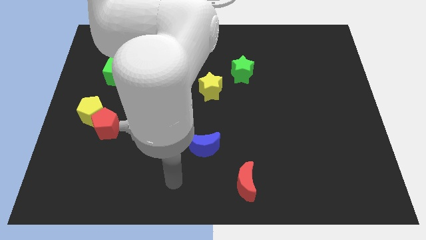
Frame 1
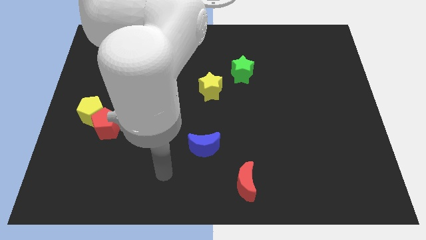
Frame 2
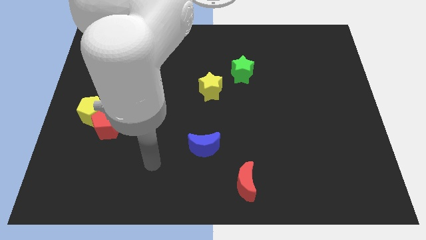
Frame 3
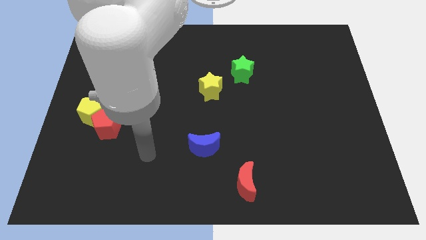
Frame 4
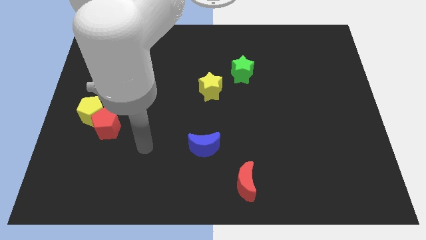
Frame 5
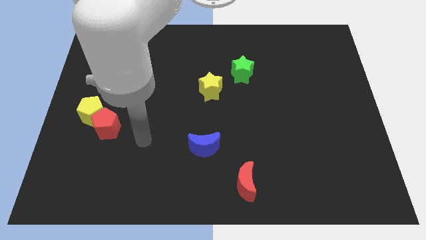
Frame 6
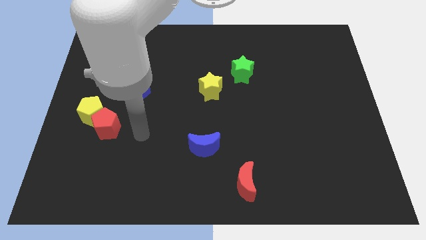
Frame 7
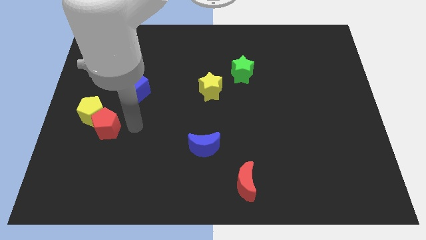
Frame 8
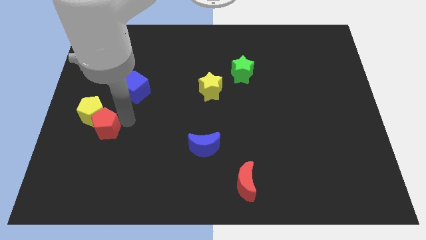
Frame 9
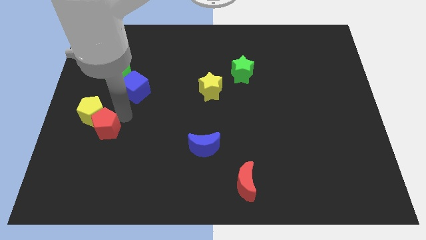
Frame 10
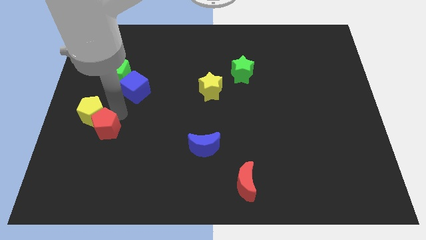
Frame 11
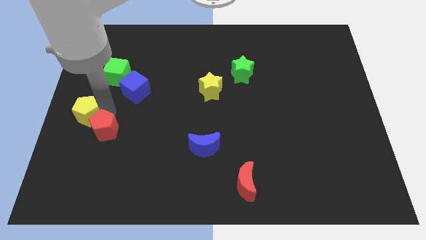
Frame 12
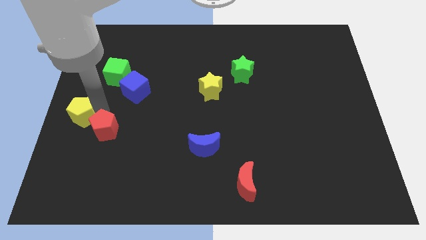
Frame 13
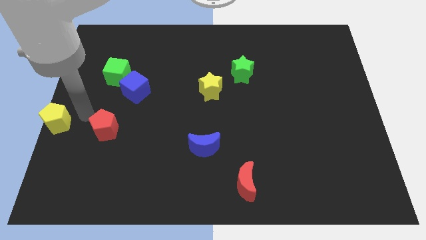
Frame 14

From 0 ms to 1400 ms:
separate the red pentagon from the yellow pentagon

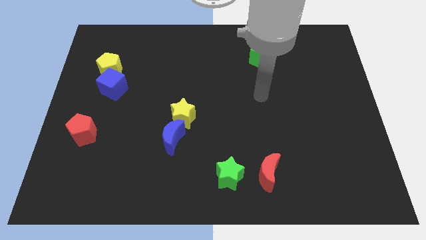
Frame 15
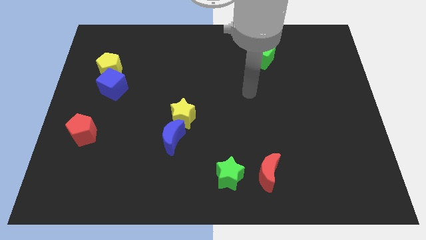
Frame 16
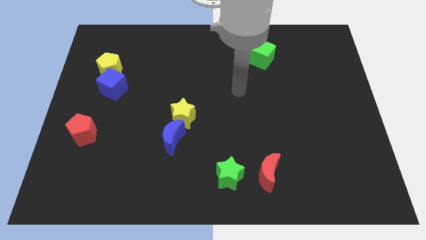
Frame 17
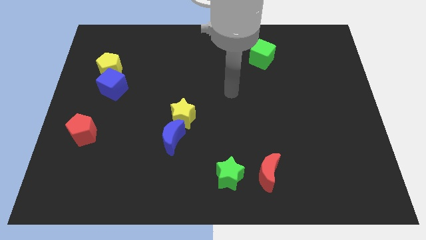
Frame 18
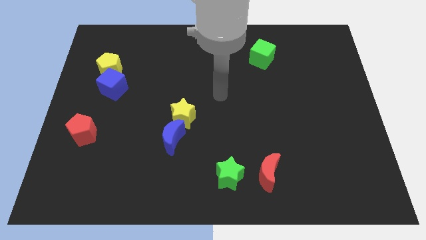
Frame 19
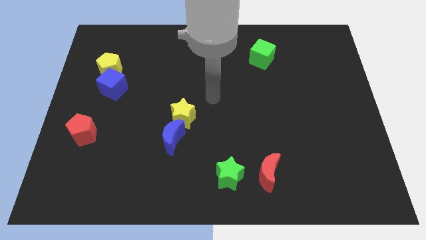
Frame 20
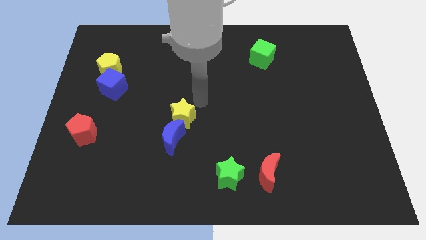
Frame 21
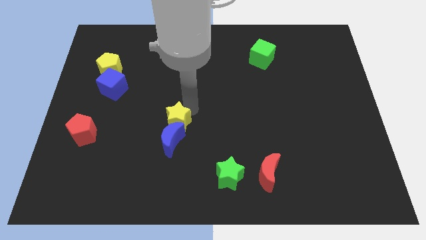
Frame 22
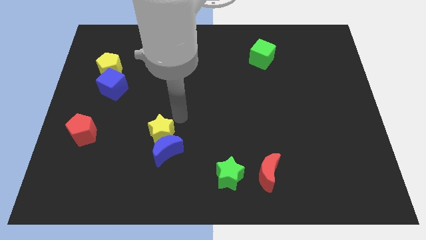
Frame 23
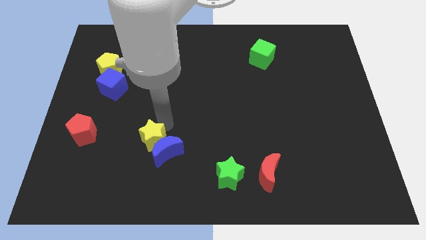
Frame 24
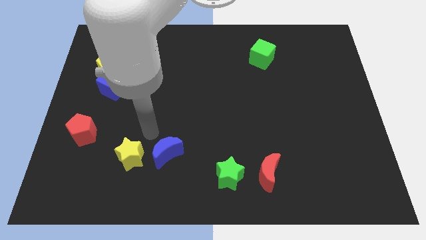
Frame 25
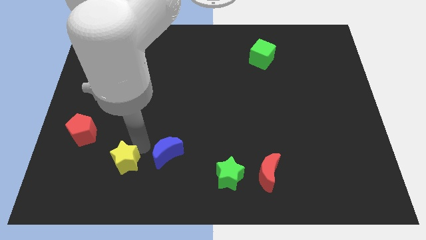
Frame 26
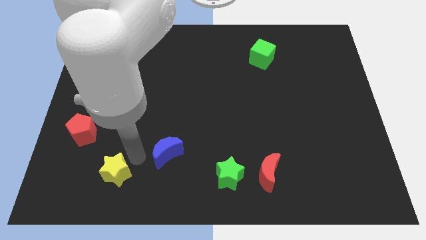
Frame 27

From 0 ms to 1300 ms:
pull the blue moon apart from the yellow star

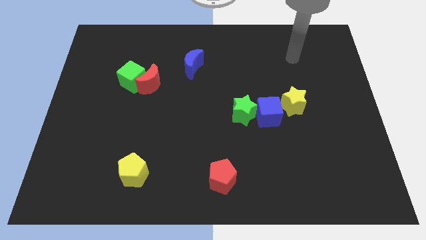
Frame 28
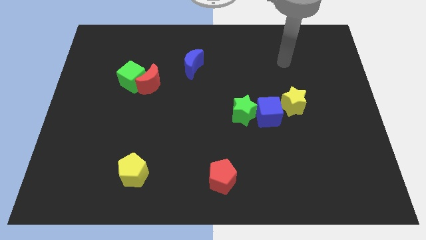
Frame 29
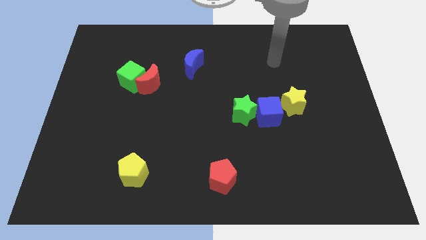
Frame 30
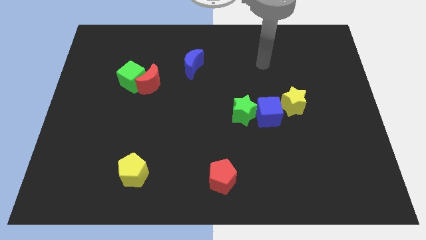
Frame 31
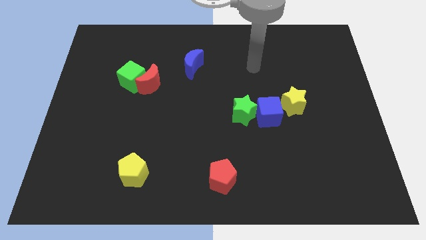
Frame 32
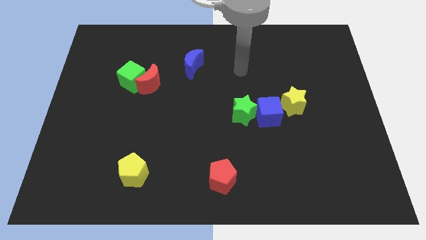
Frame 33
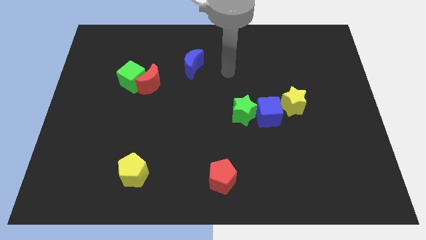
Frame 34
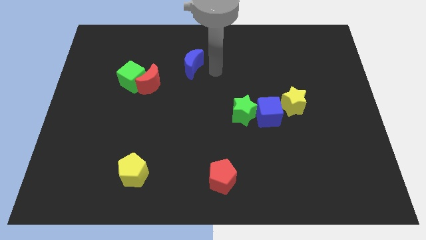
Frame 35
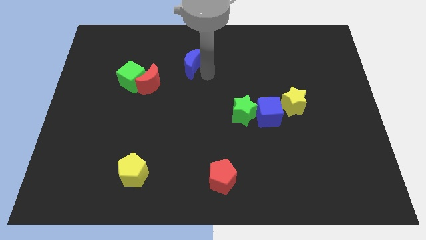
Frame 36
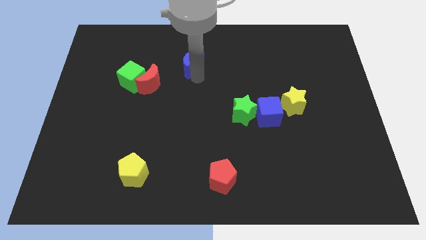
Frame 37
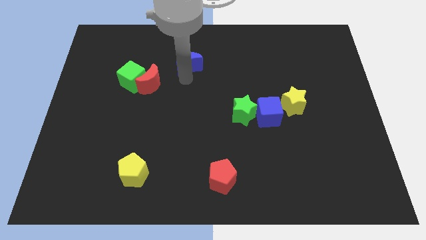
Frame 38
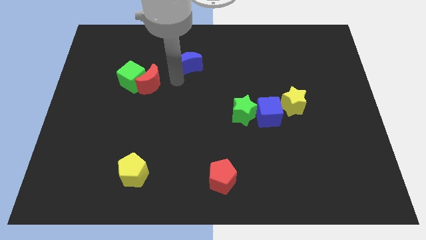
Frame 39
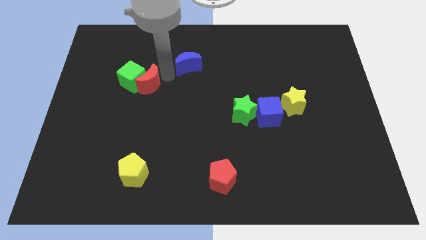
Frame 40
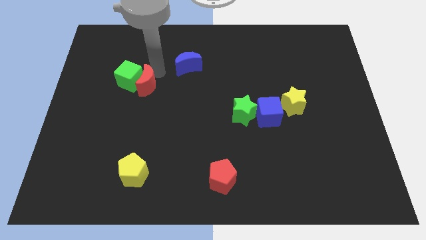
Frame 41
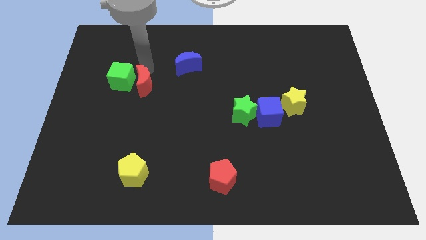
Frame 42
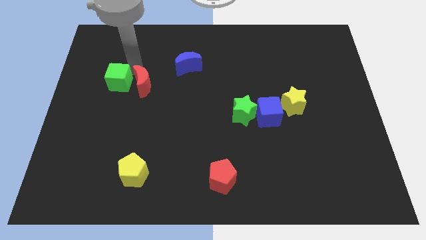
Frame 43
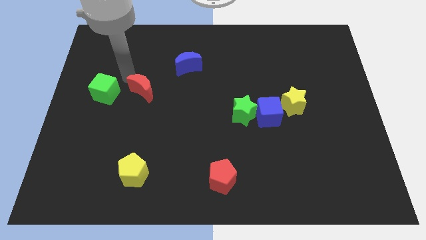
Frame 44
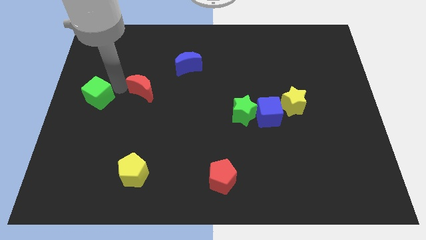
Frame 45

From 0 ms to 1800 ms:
pull the red moon apart from the green cube

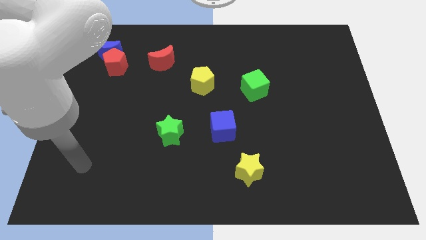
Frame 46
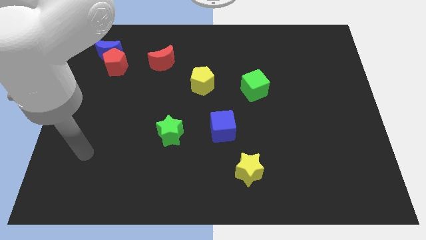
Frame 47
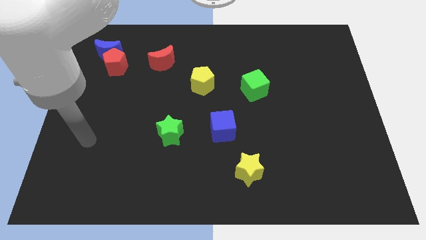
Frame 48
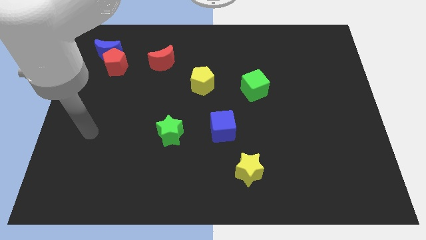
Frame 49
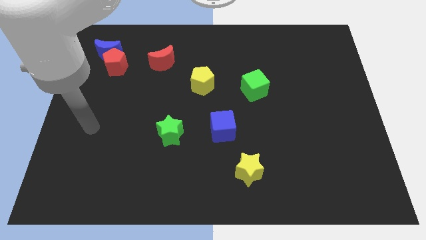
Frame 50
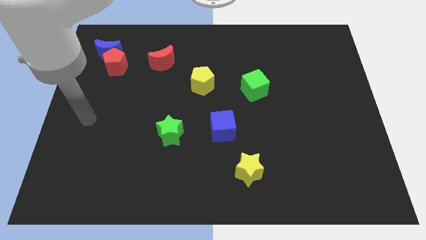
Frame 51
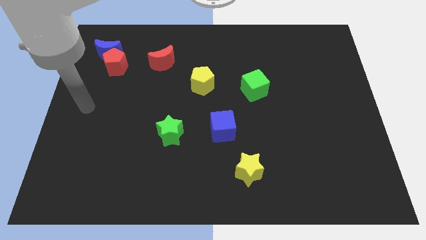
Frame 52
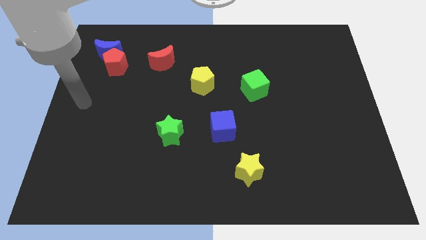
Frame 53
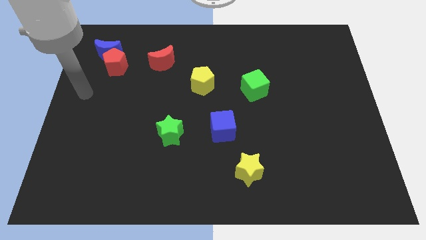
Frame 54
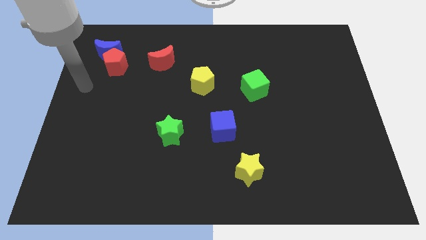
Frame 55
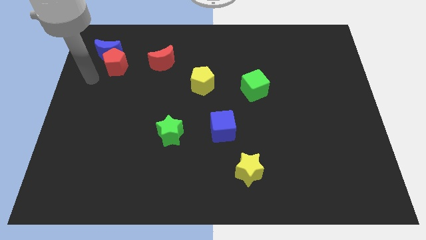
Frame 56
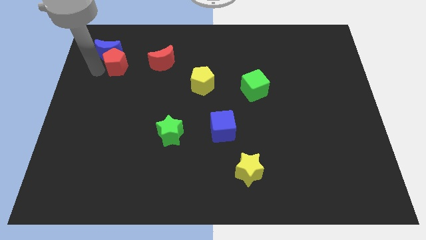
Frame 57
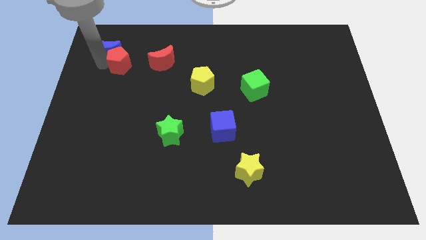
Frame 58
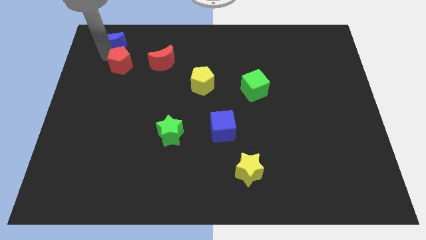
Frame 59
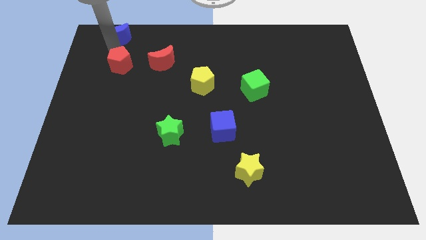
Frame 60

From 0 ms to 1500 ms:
pull the red pentagon apart from the blue moon

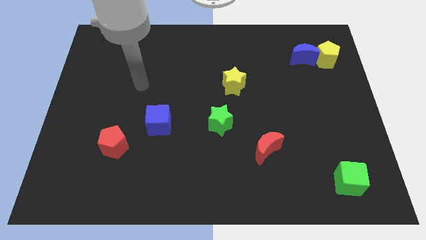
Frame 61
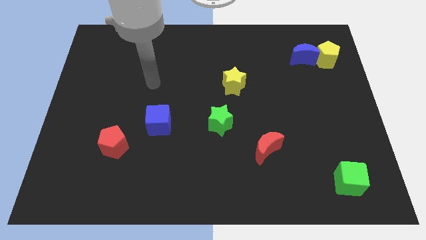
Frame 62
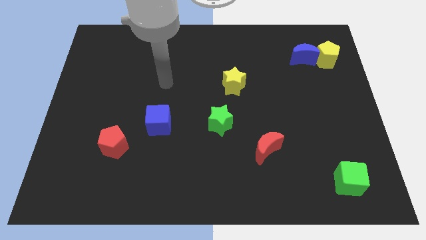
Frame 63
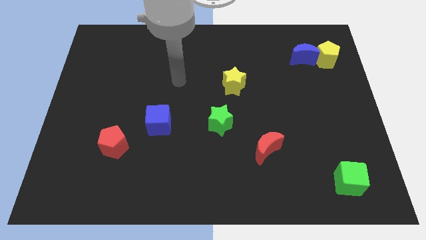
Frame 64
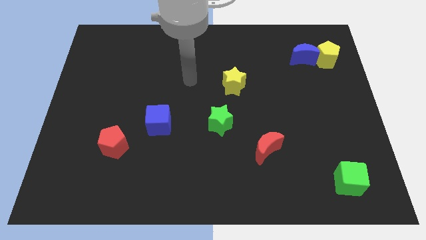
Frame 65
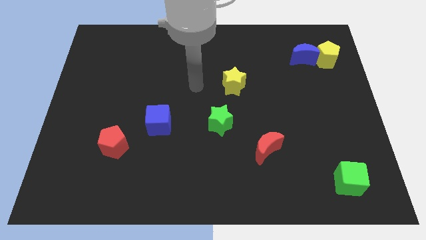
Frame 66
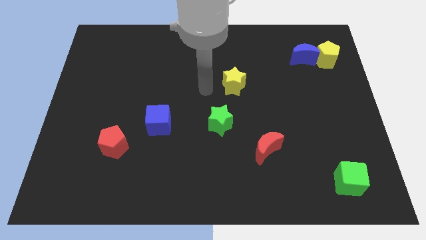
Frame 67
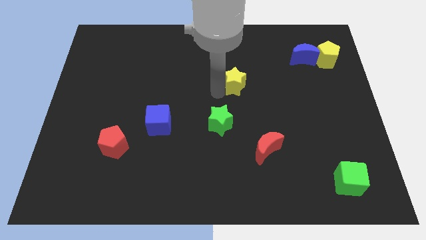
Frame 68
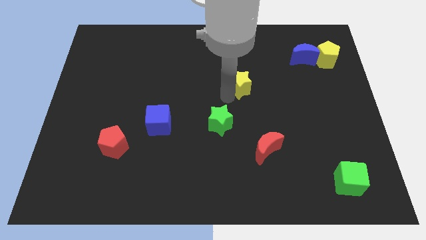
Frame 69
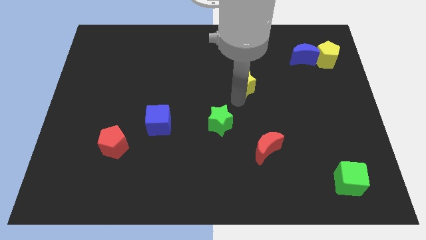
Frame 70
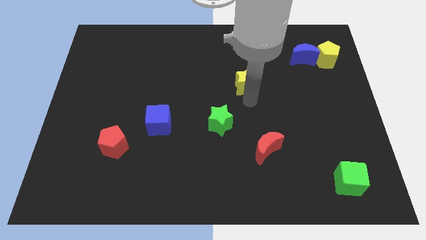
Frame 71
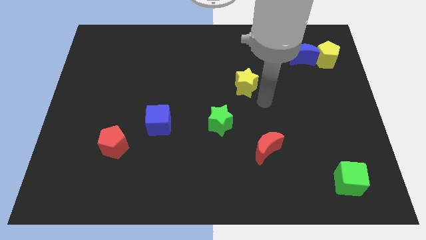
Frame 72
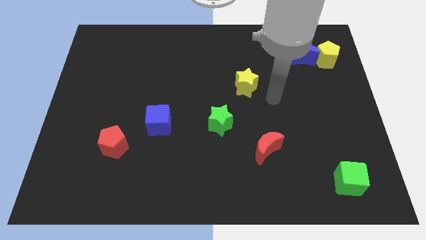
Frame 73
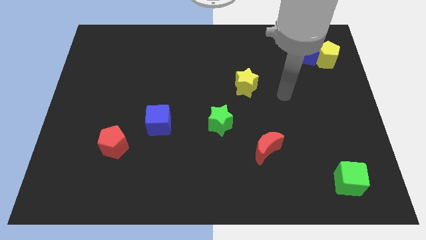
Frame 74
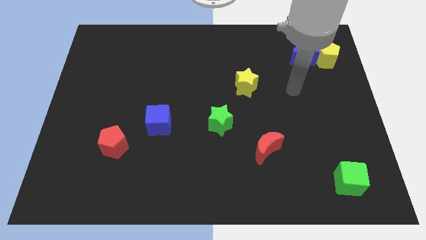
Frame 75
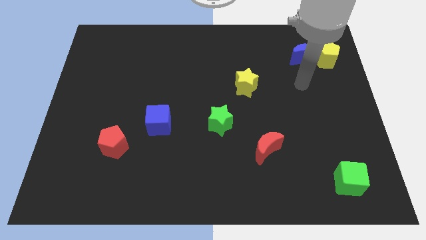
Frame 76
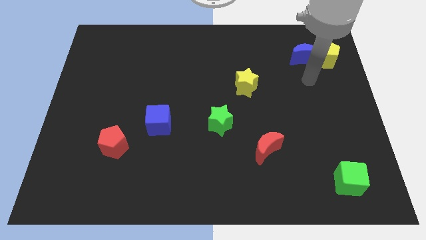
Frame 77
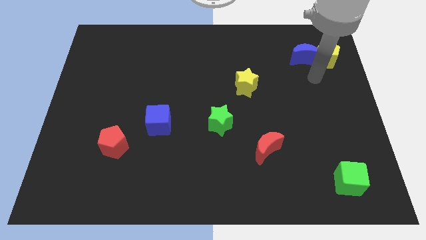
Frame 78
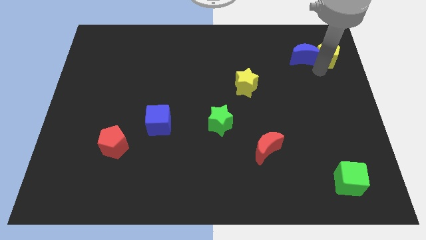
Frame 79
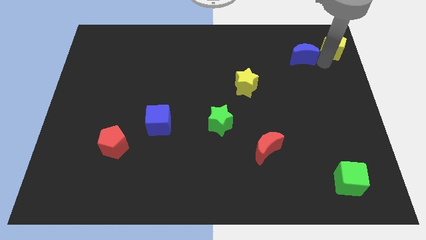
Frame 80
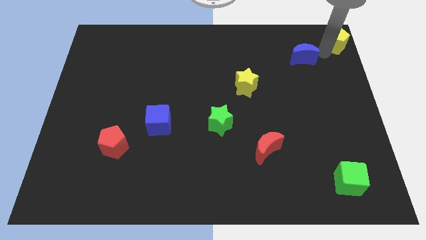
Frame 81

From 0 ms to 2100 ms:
move the blue moon away from the yellow pentagon

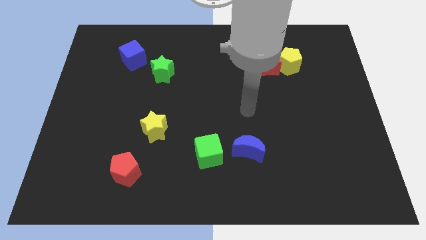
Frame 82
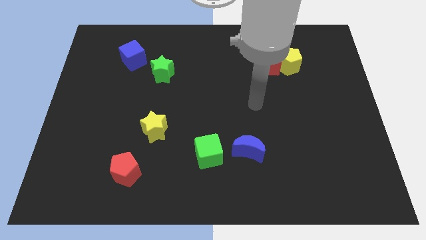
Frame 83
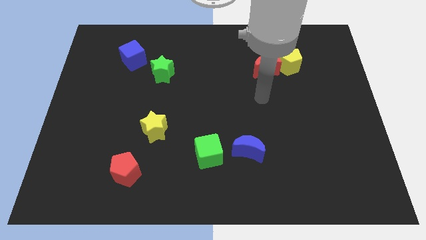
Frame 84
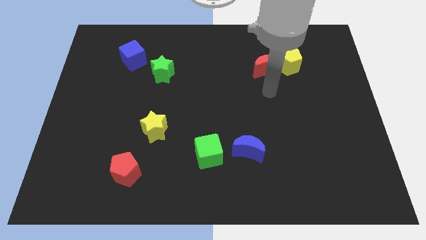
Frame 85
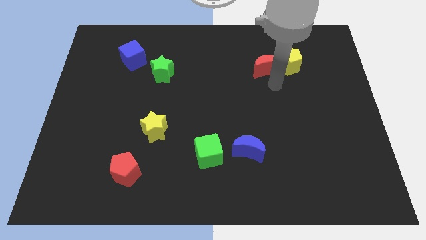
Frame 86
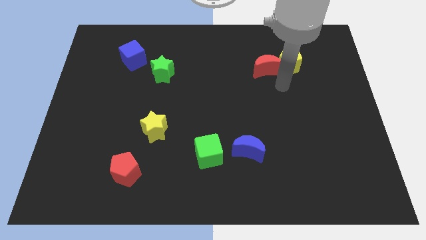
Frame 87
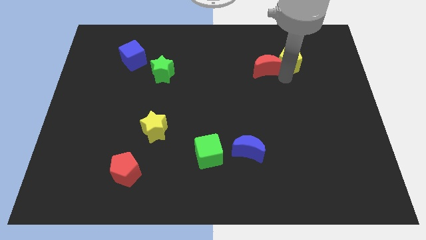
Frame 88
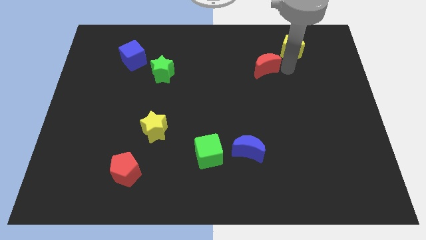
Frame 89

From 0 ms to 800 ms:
separate the red moon from the yellow pentagon

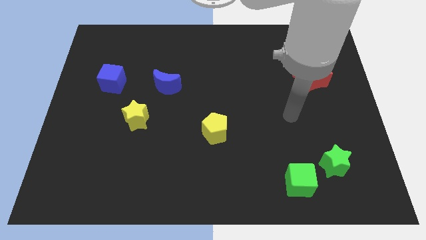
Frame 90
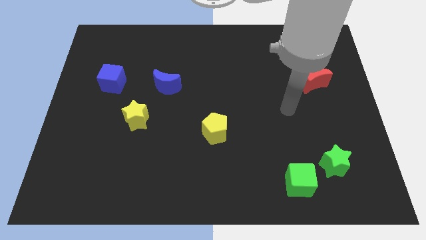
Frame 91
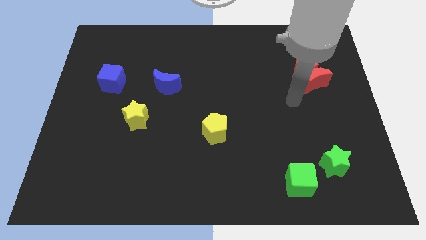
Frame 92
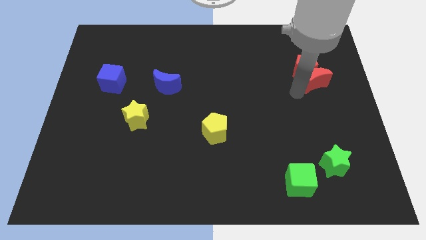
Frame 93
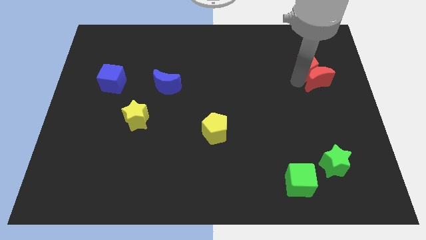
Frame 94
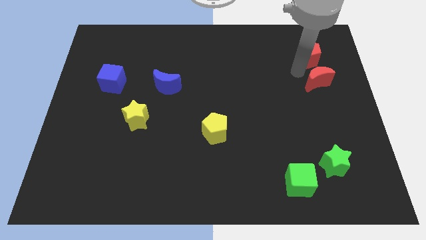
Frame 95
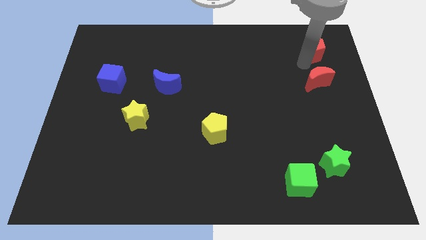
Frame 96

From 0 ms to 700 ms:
separate the red moon from the red pentagon
